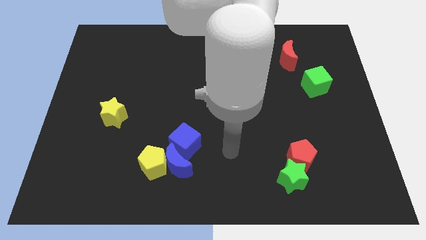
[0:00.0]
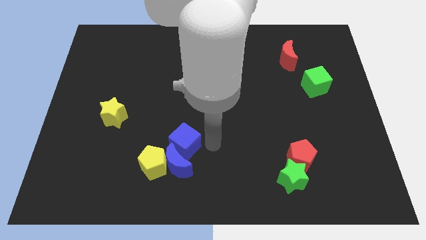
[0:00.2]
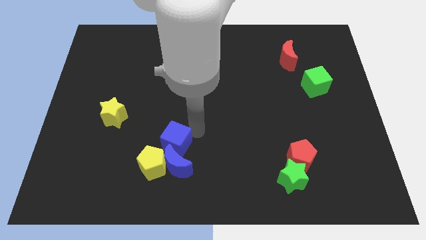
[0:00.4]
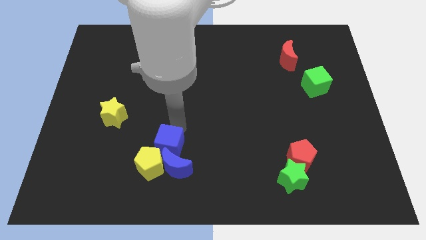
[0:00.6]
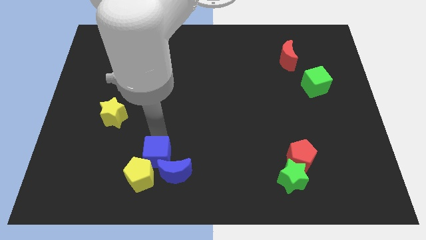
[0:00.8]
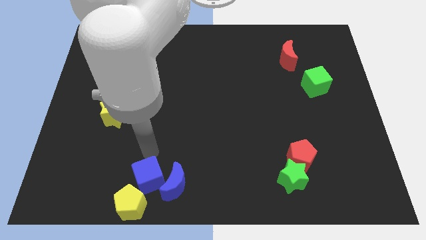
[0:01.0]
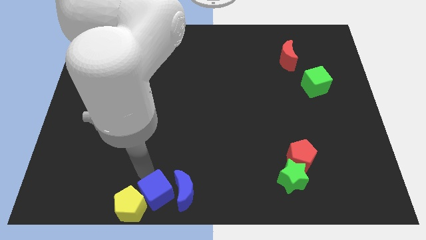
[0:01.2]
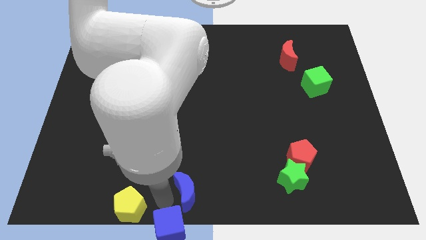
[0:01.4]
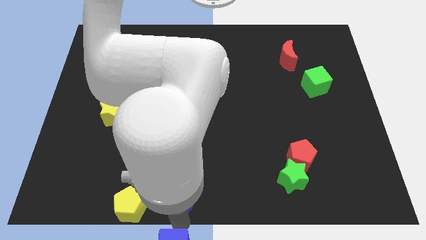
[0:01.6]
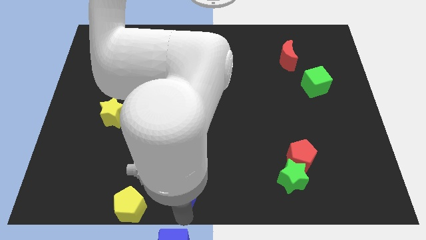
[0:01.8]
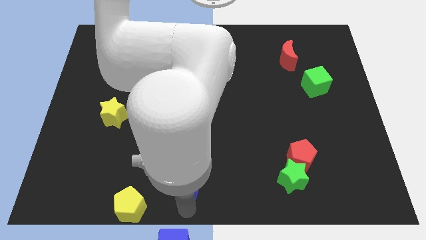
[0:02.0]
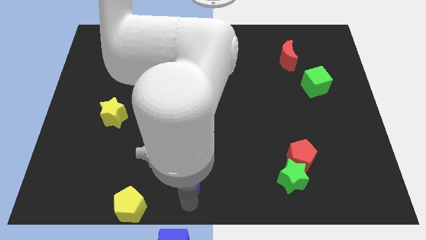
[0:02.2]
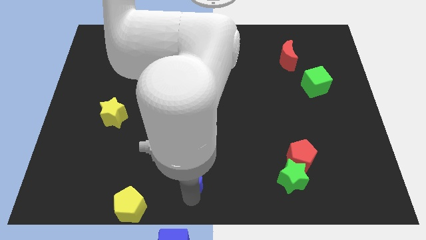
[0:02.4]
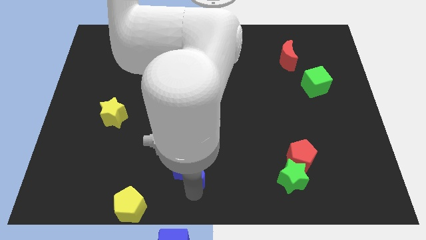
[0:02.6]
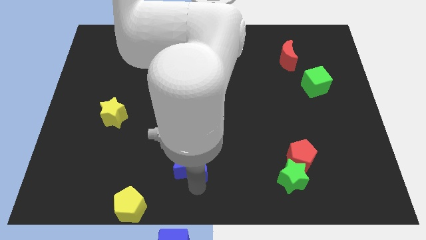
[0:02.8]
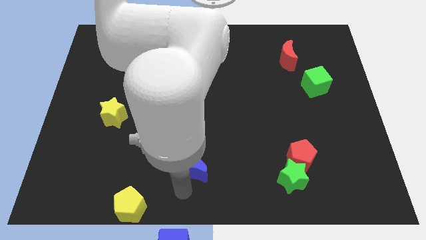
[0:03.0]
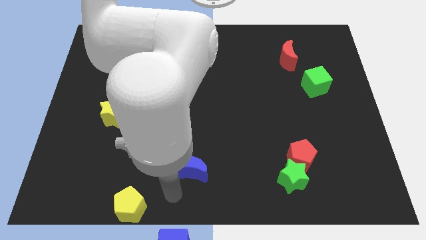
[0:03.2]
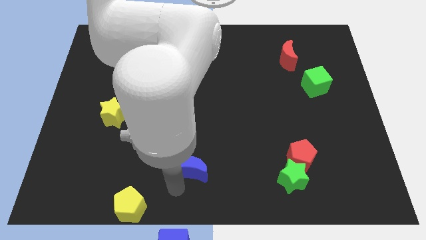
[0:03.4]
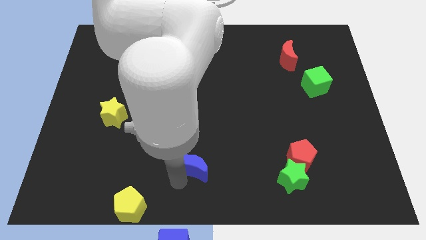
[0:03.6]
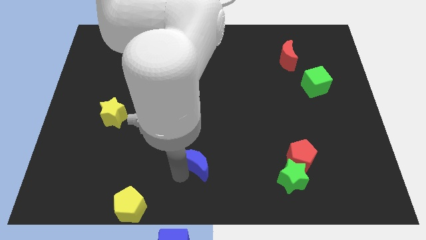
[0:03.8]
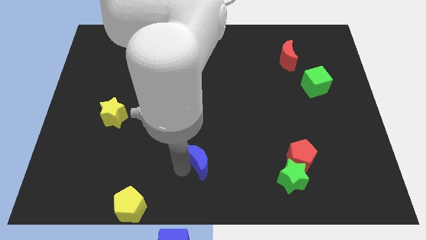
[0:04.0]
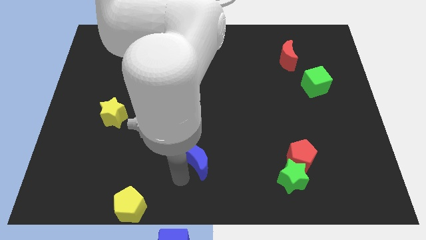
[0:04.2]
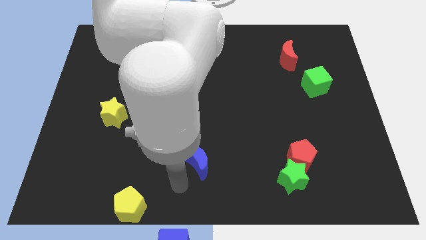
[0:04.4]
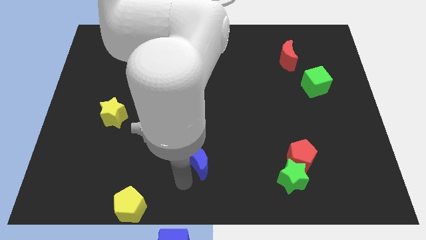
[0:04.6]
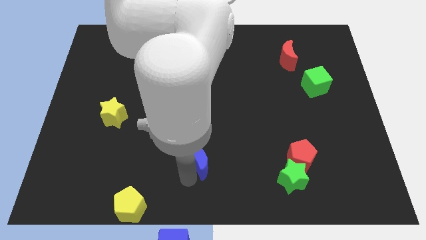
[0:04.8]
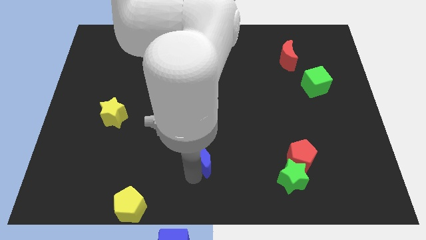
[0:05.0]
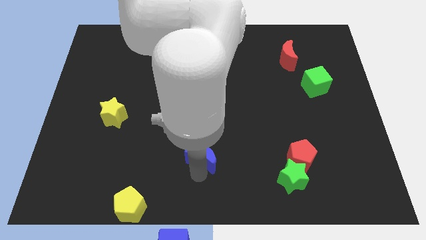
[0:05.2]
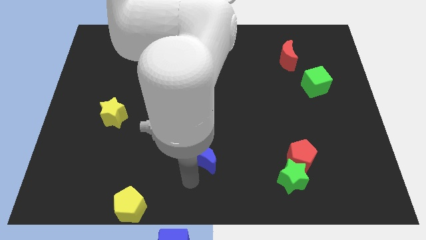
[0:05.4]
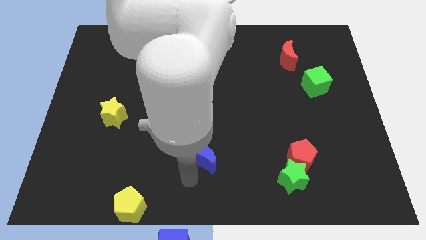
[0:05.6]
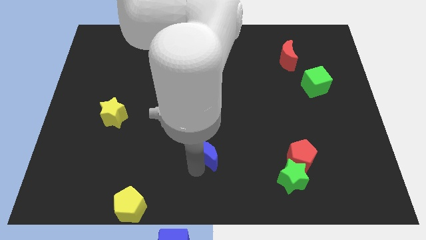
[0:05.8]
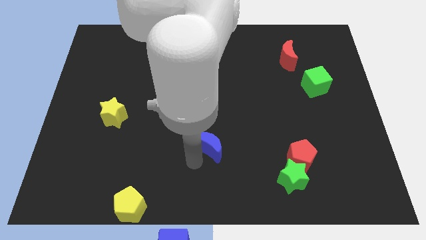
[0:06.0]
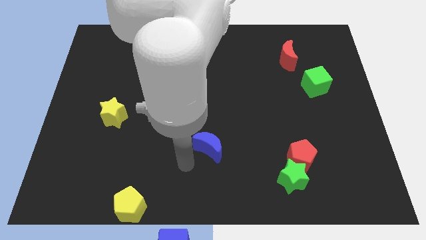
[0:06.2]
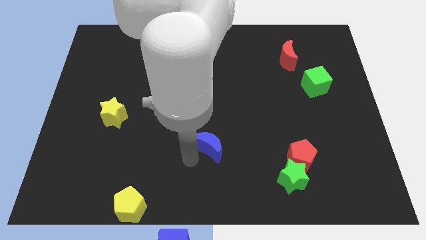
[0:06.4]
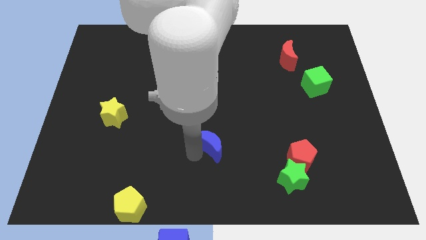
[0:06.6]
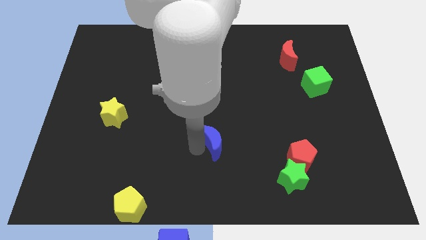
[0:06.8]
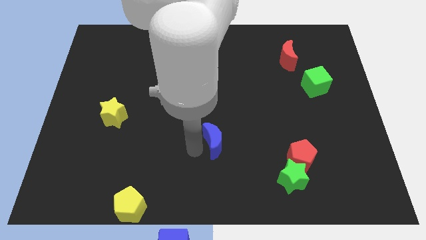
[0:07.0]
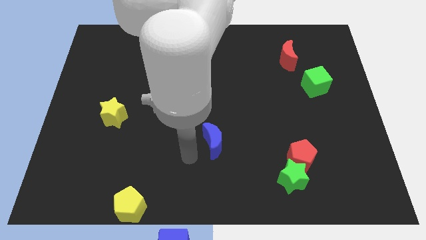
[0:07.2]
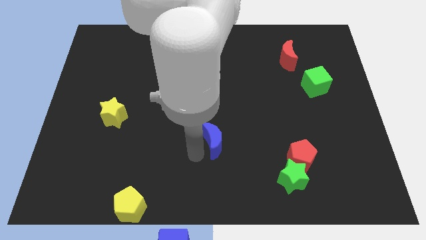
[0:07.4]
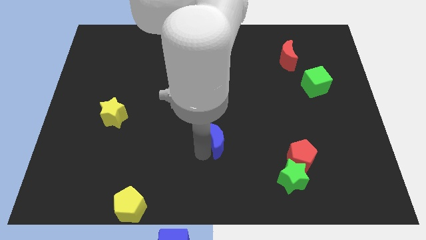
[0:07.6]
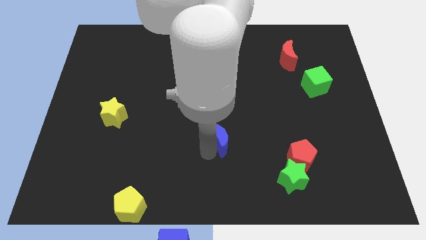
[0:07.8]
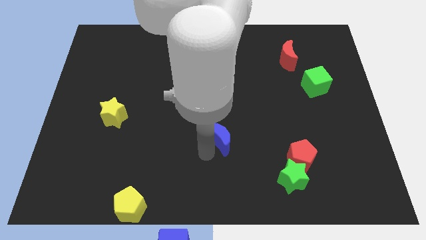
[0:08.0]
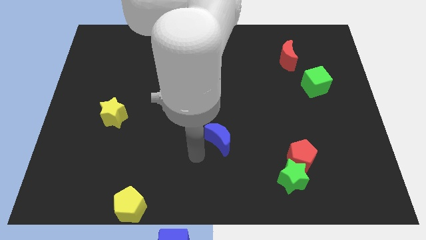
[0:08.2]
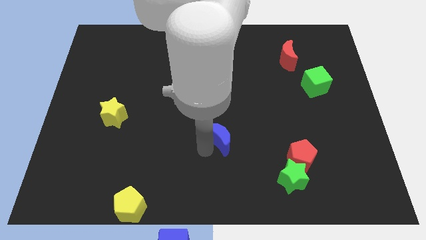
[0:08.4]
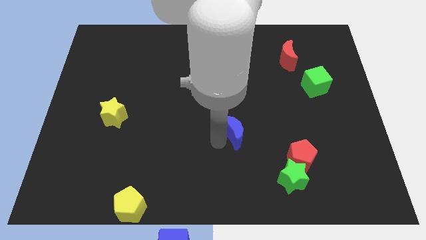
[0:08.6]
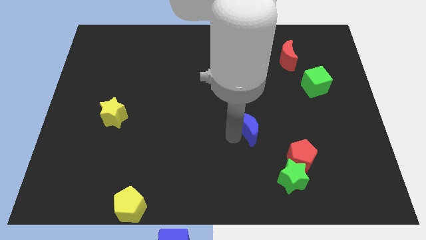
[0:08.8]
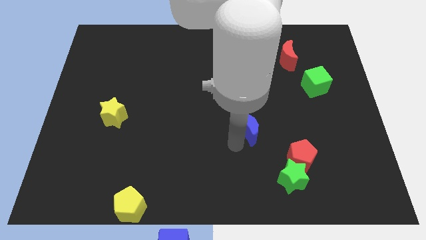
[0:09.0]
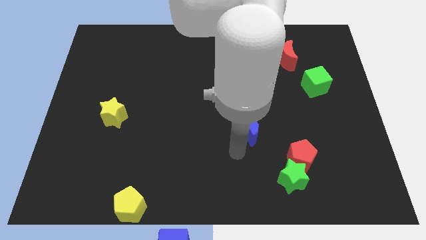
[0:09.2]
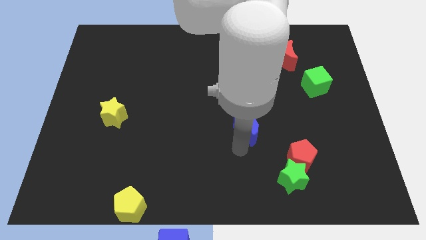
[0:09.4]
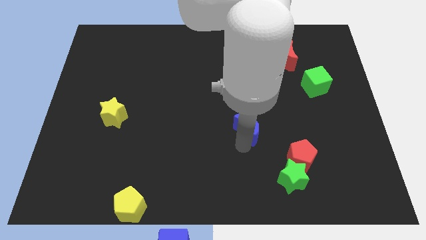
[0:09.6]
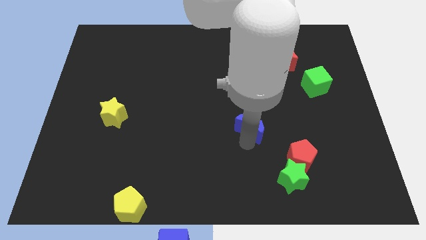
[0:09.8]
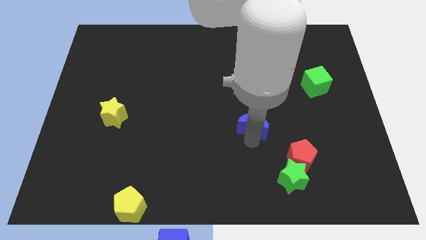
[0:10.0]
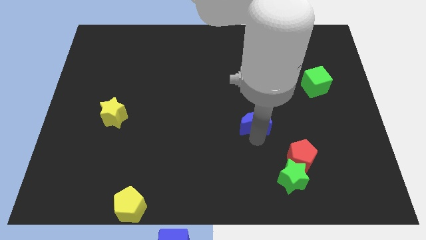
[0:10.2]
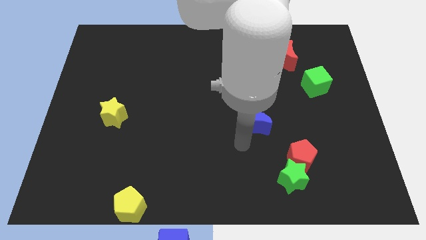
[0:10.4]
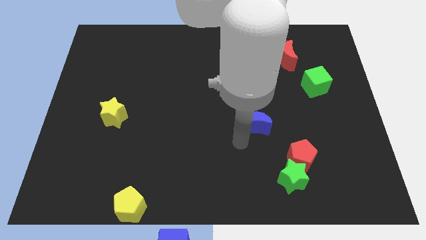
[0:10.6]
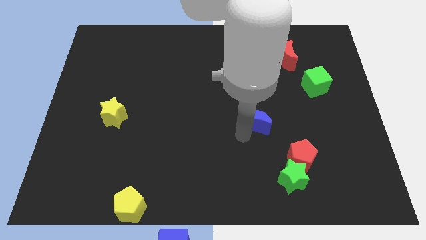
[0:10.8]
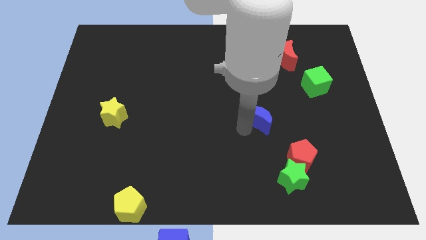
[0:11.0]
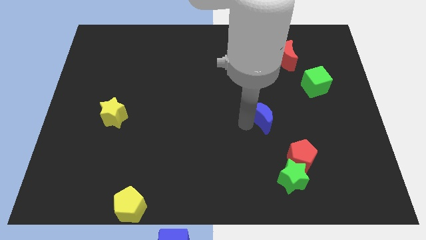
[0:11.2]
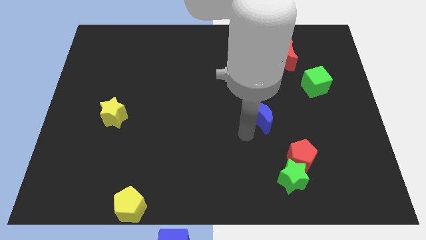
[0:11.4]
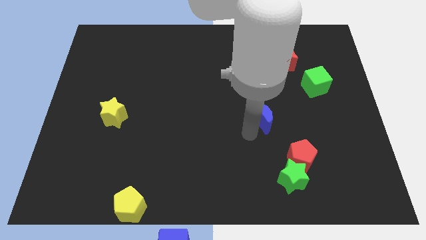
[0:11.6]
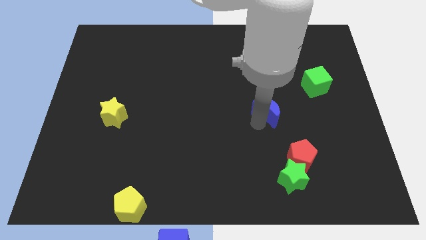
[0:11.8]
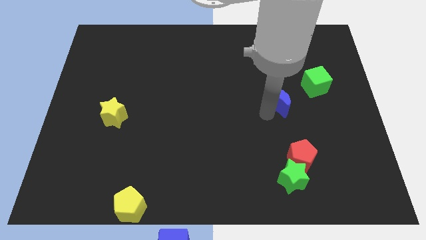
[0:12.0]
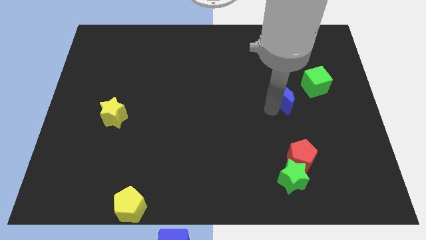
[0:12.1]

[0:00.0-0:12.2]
move the blue moon to the bottom side of the red moon

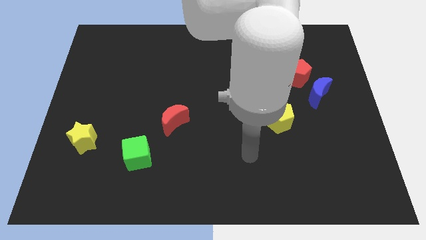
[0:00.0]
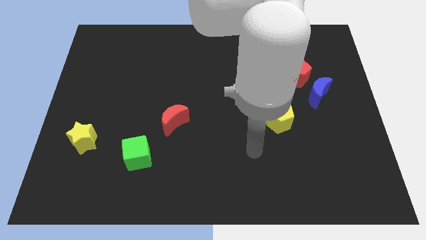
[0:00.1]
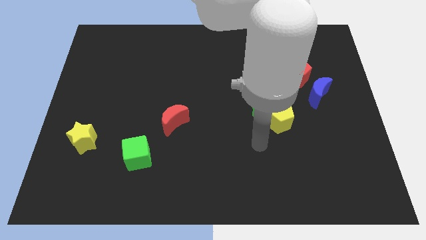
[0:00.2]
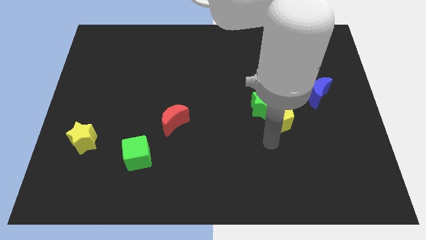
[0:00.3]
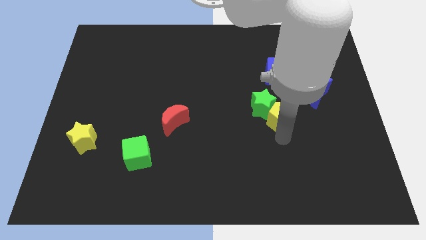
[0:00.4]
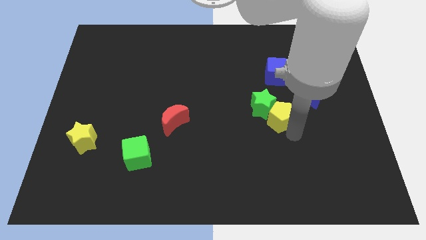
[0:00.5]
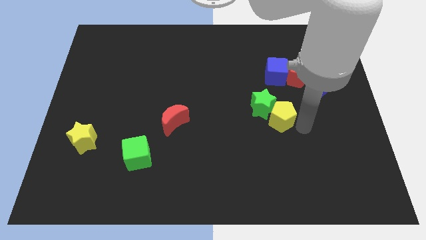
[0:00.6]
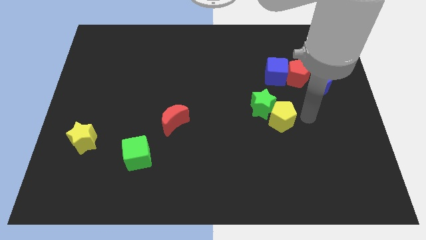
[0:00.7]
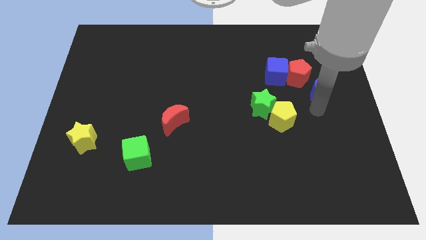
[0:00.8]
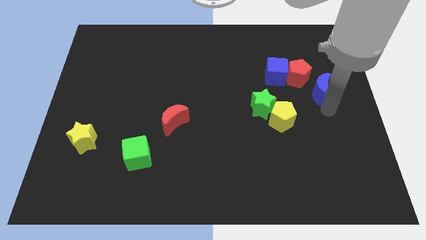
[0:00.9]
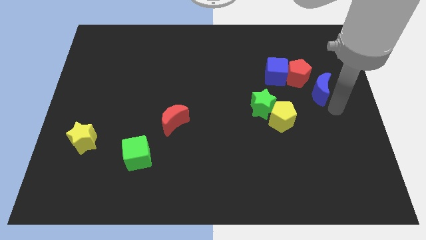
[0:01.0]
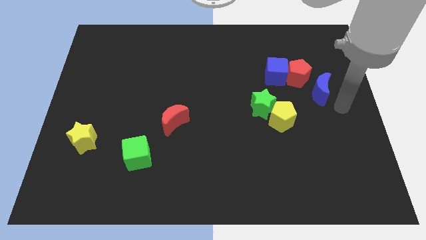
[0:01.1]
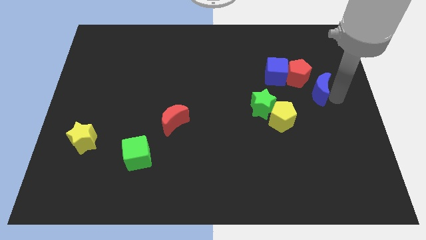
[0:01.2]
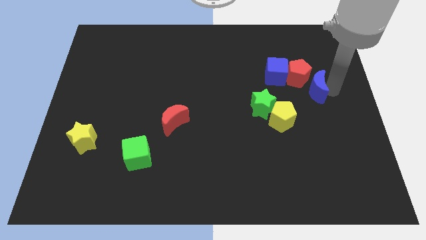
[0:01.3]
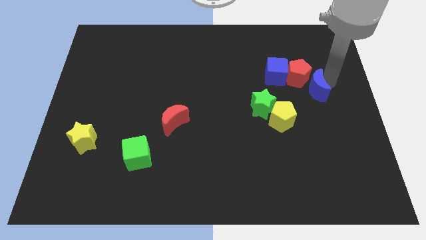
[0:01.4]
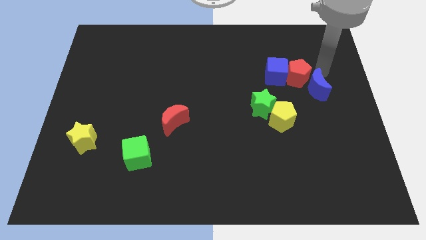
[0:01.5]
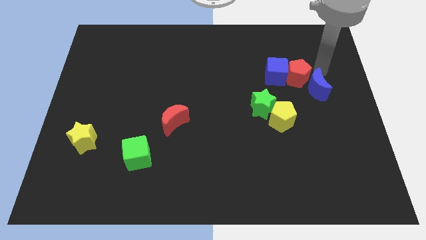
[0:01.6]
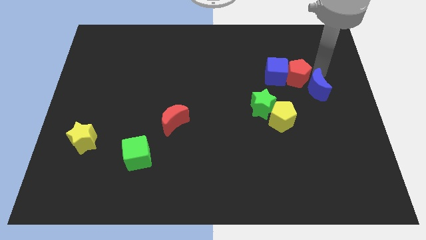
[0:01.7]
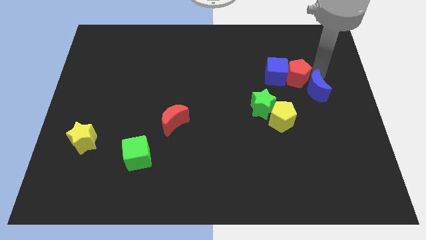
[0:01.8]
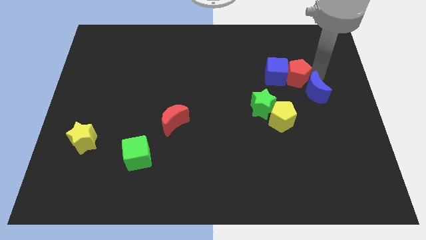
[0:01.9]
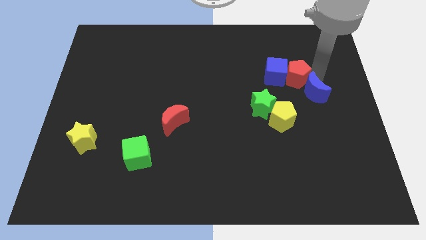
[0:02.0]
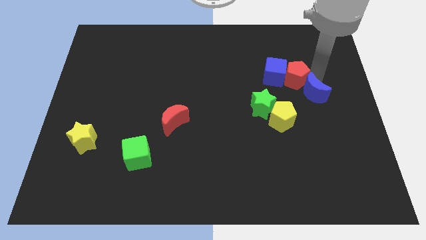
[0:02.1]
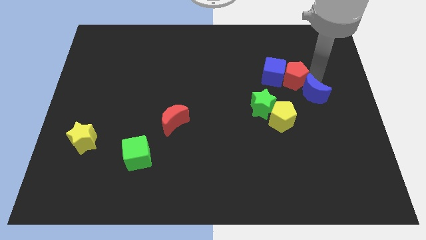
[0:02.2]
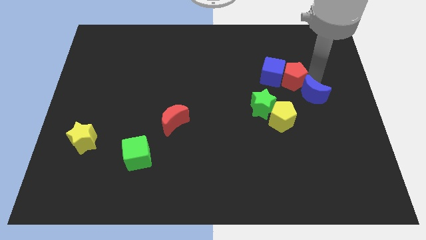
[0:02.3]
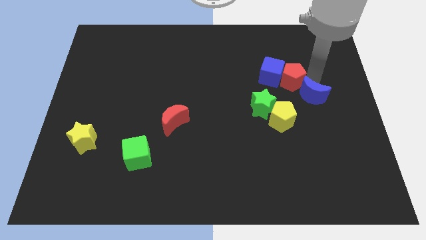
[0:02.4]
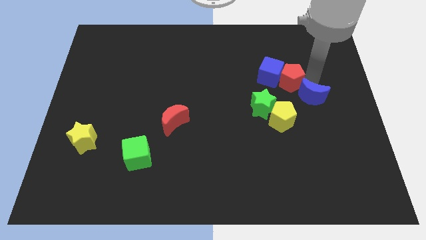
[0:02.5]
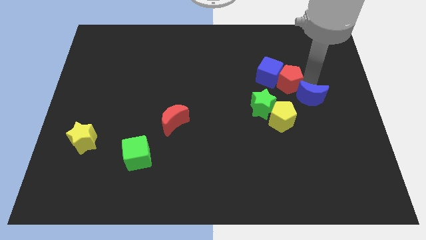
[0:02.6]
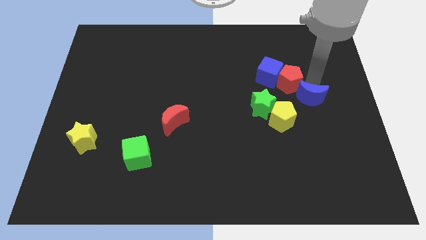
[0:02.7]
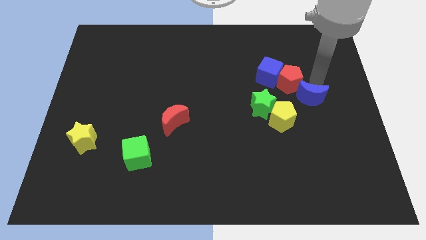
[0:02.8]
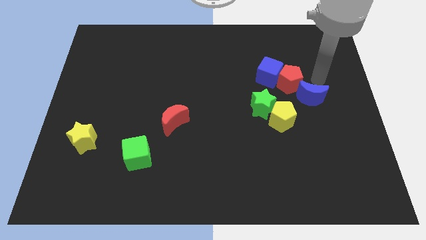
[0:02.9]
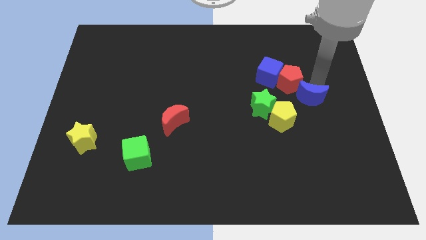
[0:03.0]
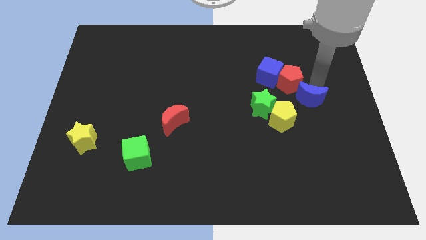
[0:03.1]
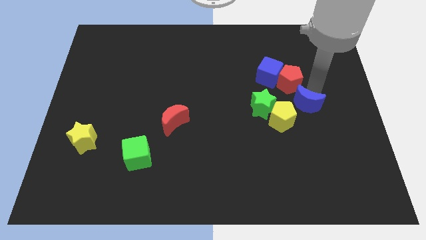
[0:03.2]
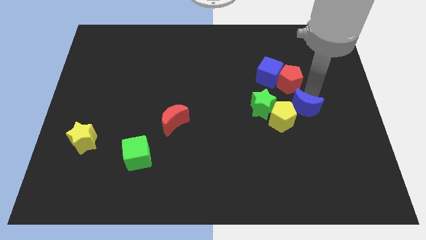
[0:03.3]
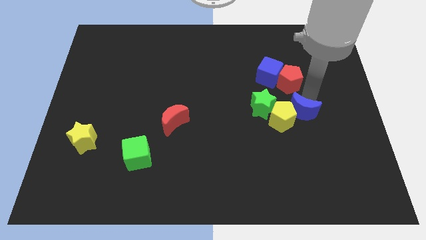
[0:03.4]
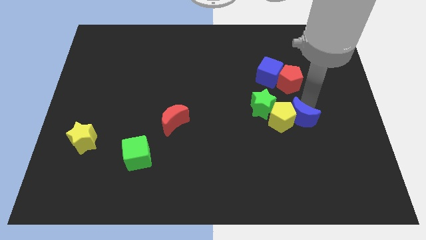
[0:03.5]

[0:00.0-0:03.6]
slide the blue moon to the bottom right side of the green star
